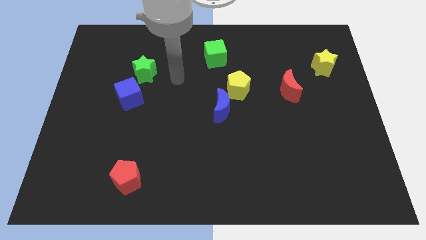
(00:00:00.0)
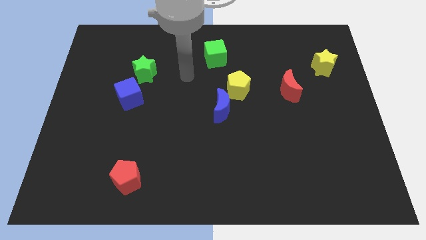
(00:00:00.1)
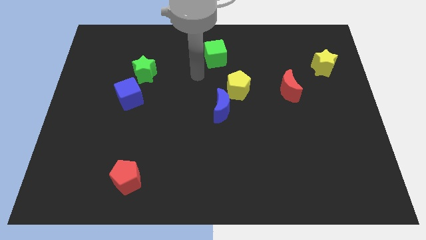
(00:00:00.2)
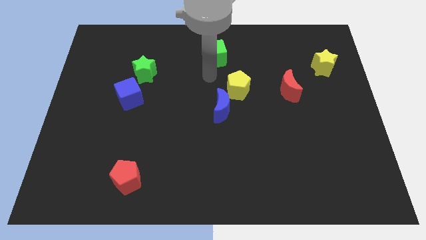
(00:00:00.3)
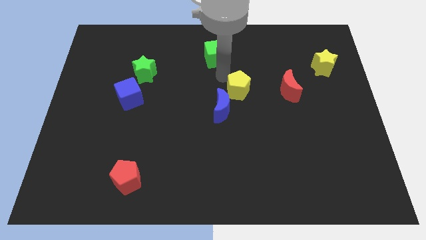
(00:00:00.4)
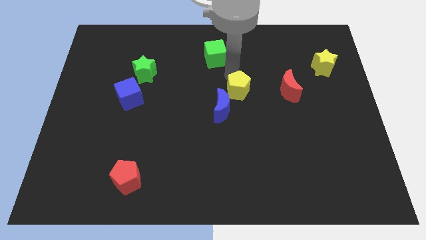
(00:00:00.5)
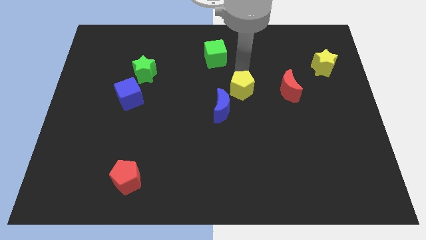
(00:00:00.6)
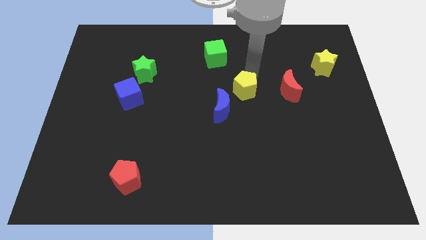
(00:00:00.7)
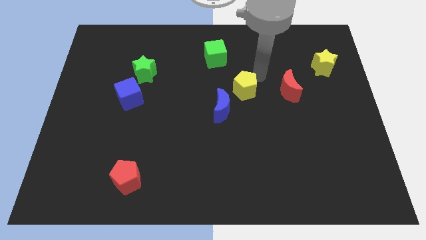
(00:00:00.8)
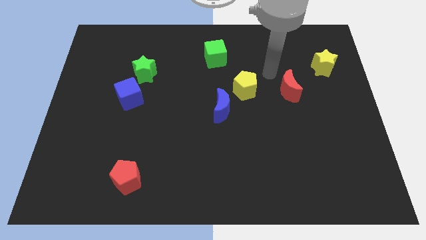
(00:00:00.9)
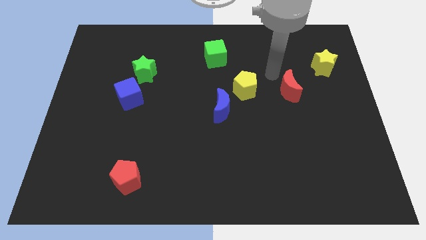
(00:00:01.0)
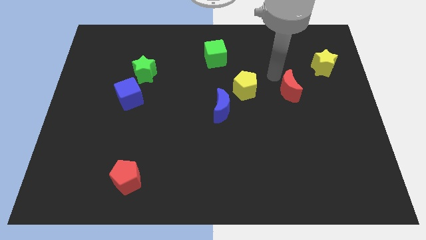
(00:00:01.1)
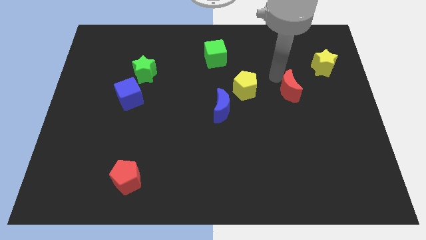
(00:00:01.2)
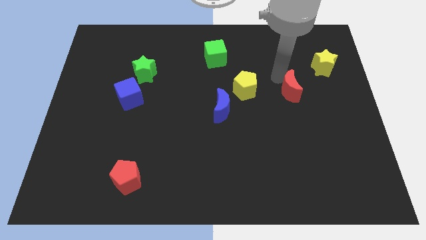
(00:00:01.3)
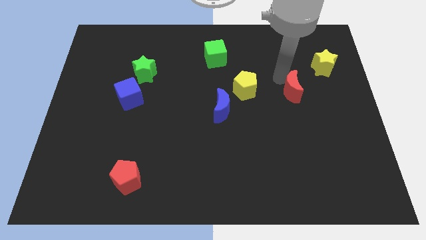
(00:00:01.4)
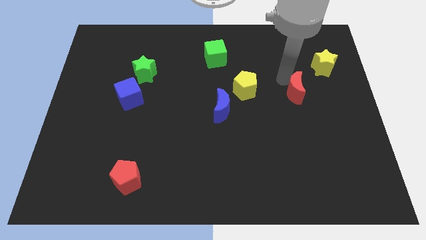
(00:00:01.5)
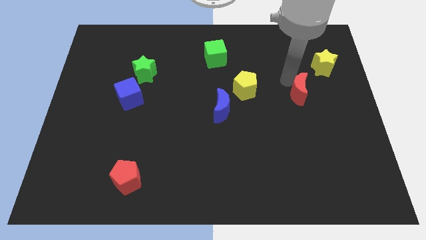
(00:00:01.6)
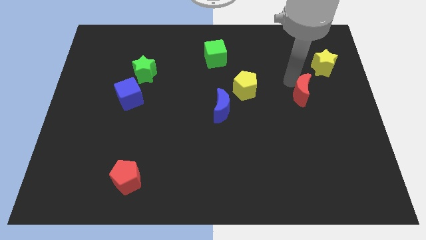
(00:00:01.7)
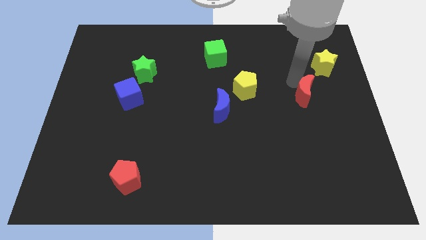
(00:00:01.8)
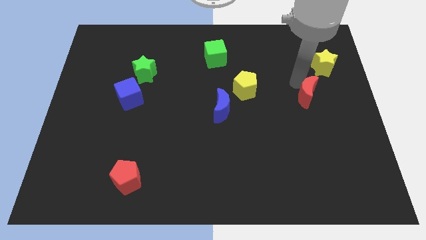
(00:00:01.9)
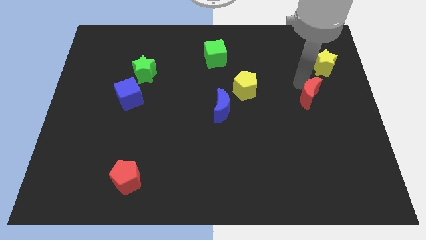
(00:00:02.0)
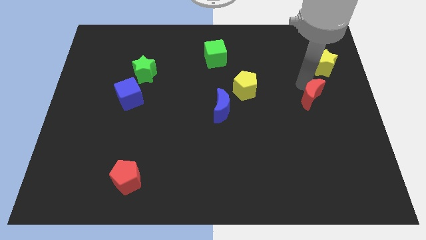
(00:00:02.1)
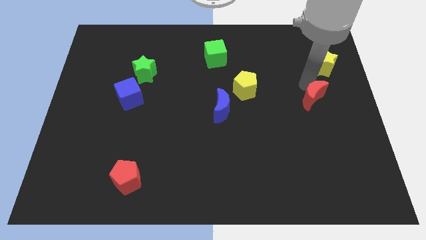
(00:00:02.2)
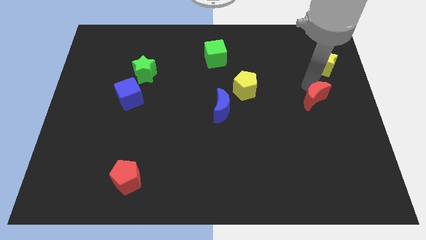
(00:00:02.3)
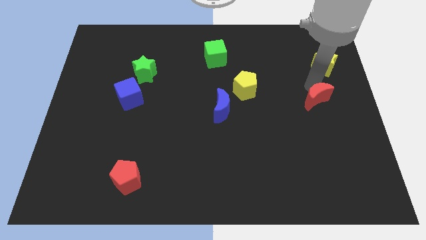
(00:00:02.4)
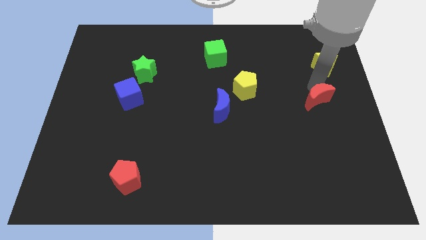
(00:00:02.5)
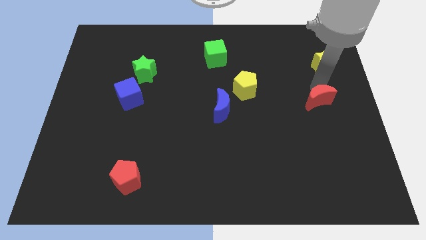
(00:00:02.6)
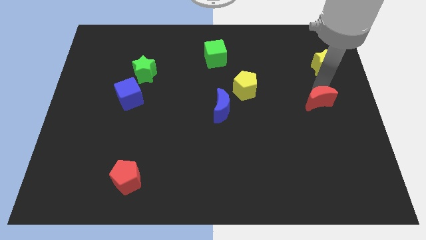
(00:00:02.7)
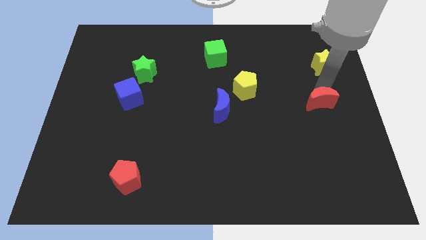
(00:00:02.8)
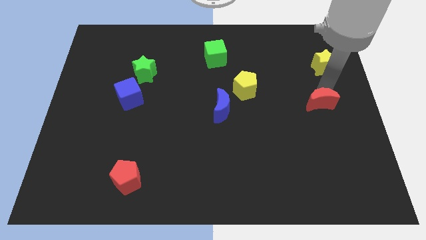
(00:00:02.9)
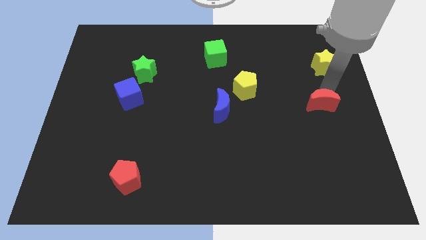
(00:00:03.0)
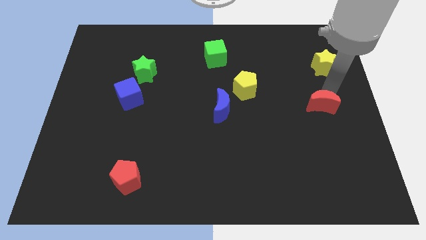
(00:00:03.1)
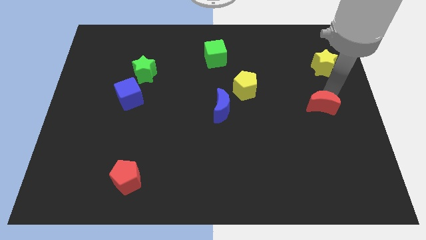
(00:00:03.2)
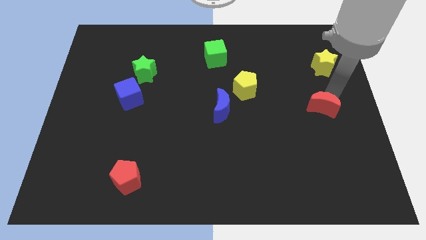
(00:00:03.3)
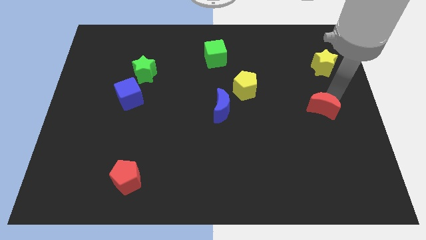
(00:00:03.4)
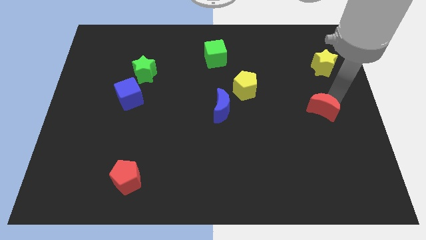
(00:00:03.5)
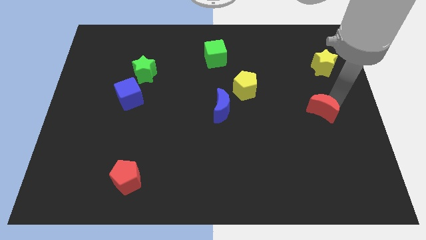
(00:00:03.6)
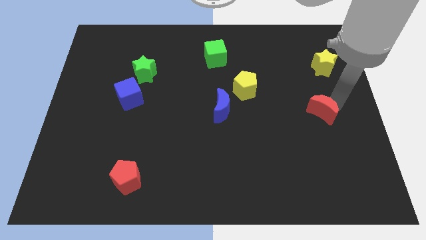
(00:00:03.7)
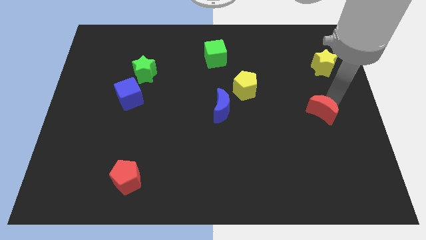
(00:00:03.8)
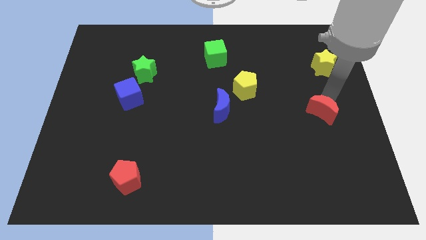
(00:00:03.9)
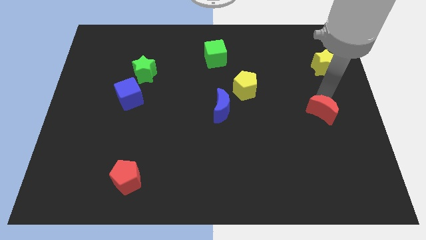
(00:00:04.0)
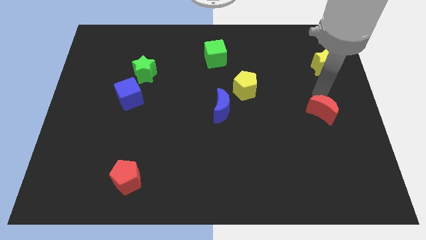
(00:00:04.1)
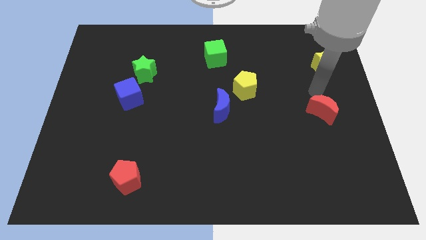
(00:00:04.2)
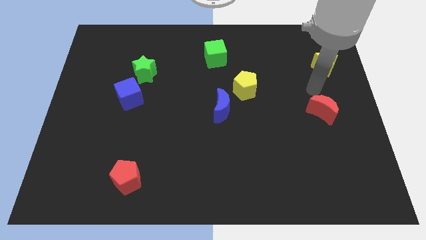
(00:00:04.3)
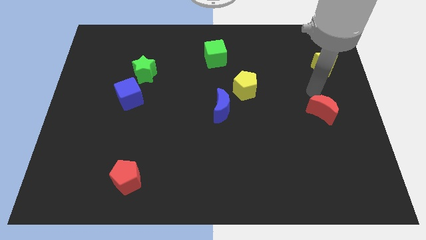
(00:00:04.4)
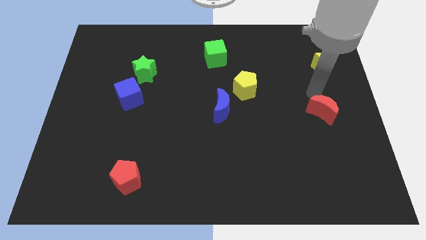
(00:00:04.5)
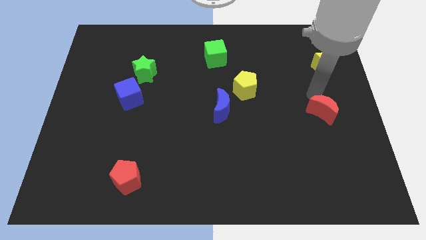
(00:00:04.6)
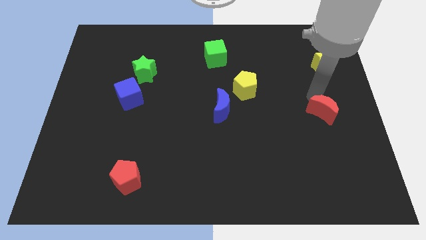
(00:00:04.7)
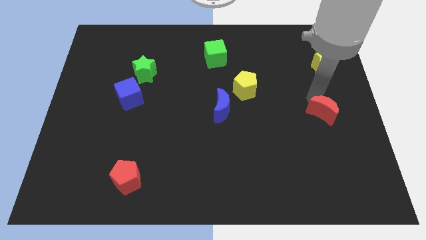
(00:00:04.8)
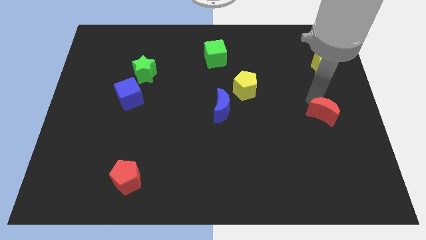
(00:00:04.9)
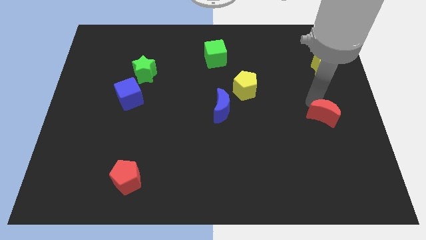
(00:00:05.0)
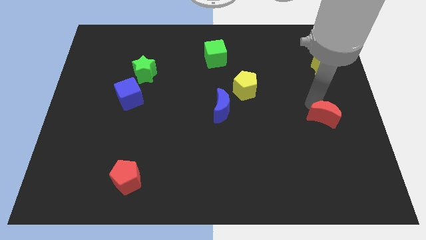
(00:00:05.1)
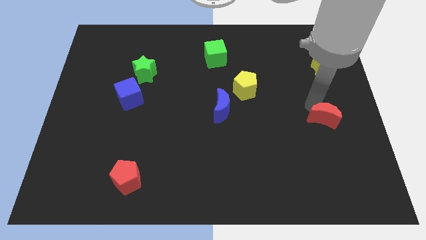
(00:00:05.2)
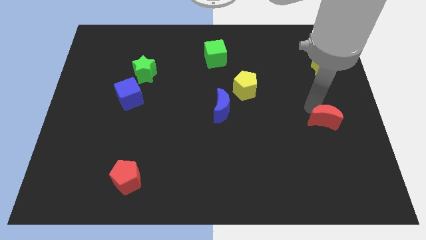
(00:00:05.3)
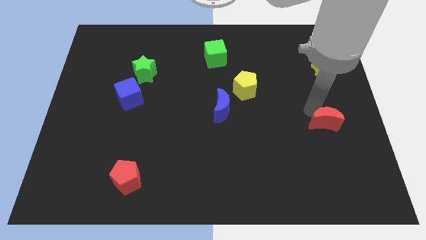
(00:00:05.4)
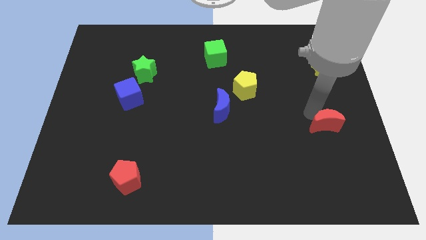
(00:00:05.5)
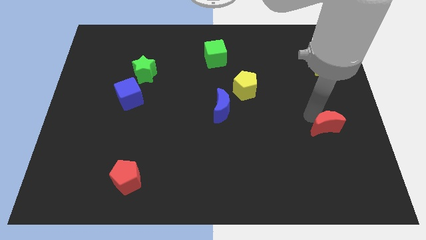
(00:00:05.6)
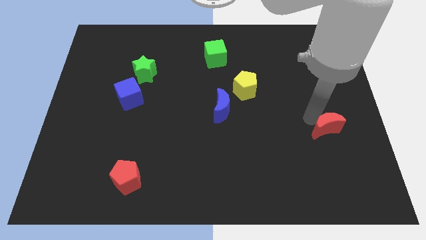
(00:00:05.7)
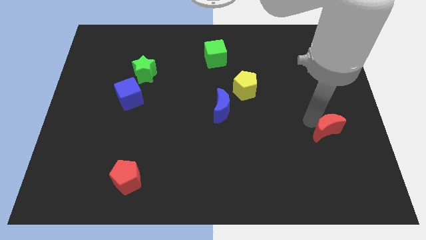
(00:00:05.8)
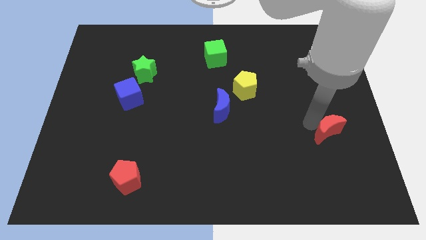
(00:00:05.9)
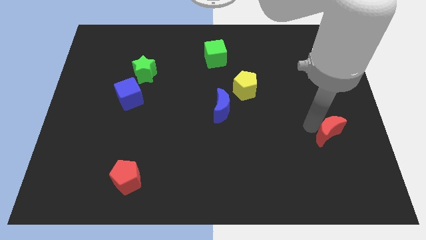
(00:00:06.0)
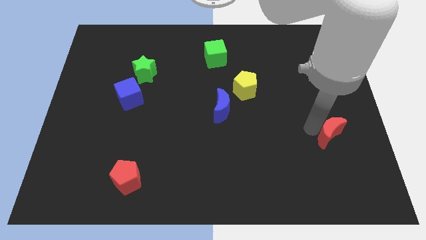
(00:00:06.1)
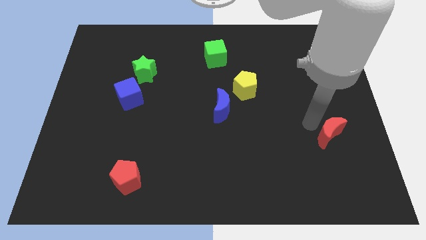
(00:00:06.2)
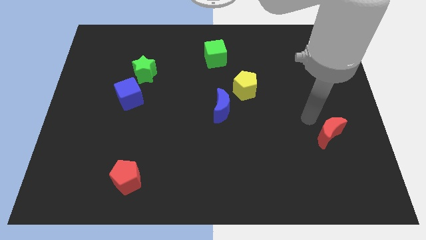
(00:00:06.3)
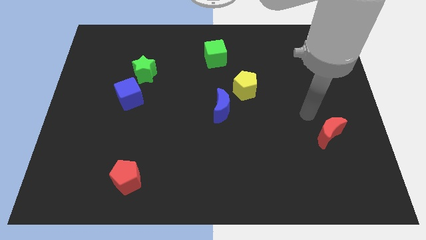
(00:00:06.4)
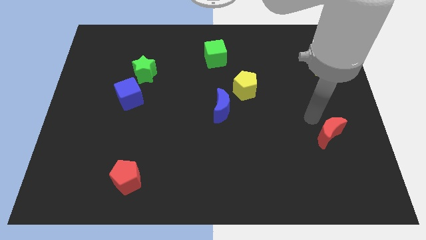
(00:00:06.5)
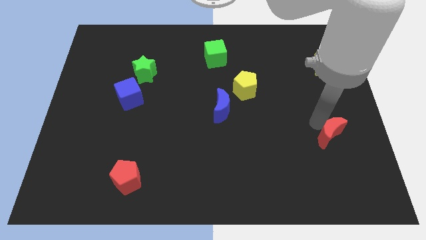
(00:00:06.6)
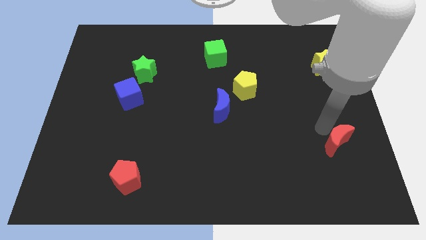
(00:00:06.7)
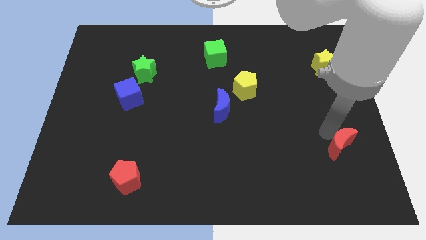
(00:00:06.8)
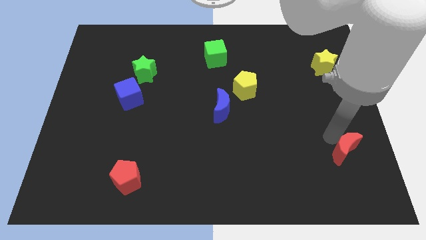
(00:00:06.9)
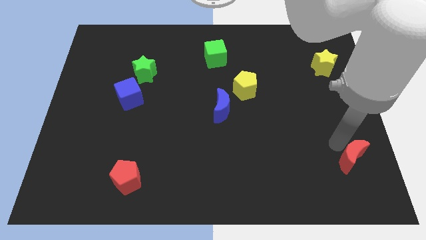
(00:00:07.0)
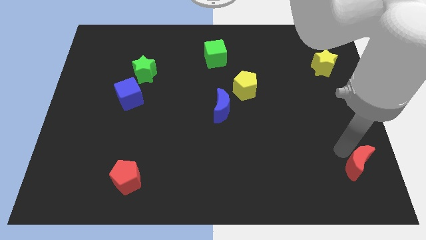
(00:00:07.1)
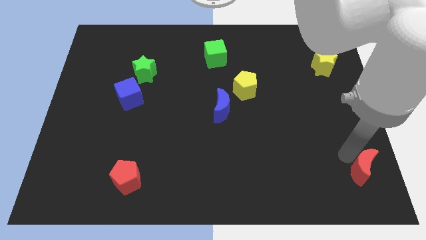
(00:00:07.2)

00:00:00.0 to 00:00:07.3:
put the red moon to the lower right corner
